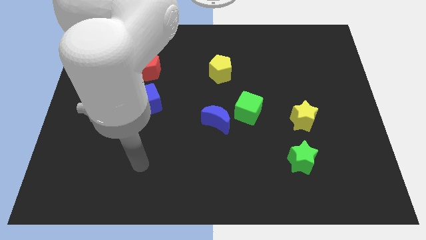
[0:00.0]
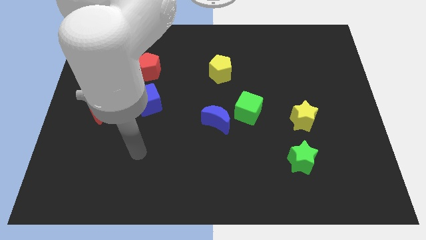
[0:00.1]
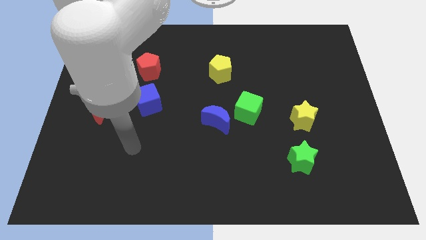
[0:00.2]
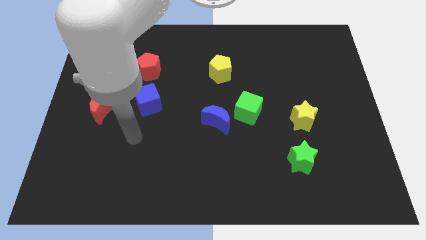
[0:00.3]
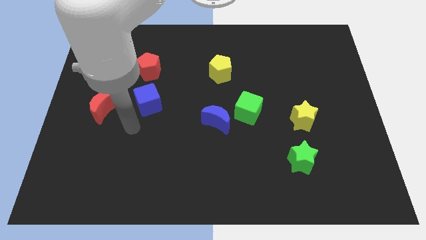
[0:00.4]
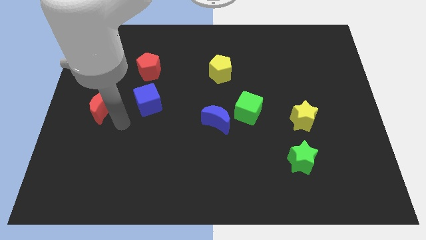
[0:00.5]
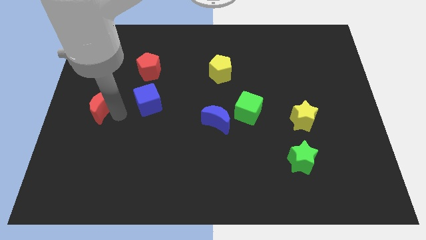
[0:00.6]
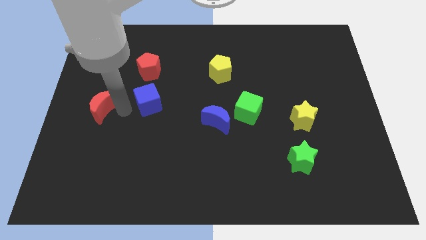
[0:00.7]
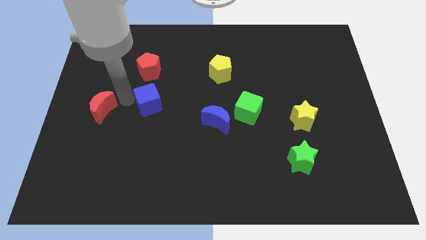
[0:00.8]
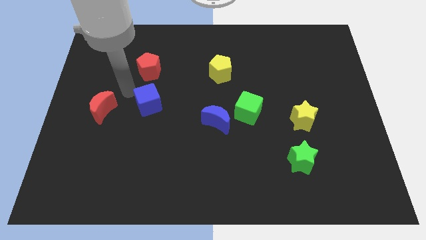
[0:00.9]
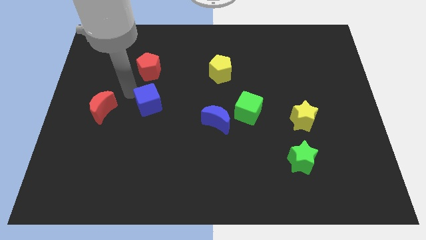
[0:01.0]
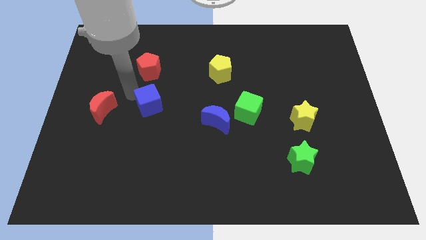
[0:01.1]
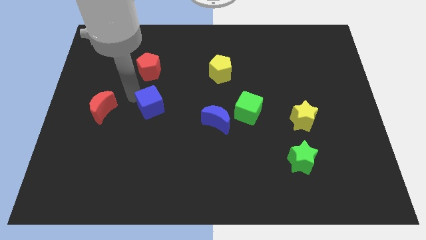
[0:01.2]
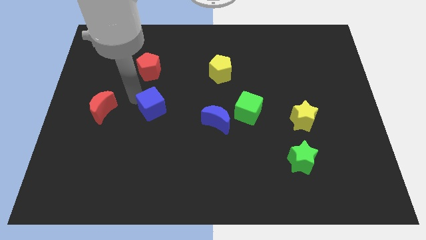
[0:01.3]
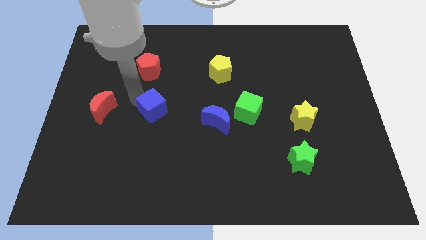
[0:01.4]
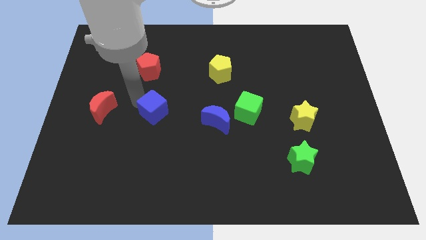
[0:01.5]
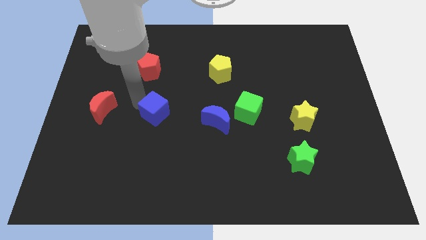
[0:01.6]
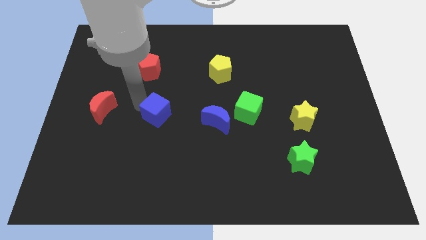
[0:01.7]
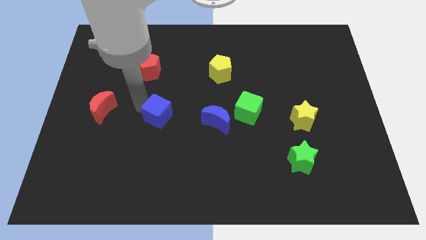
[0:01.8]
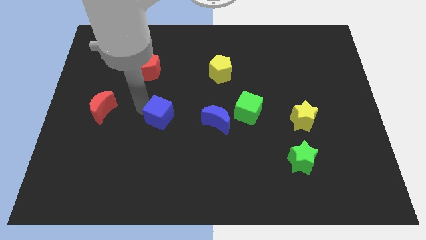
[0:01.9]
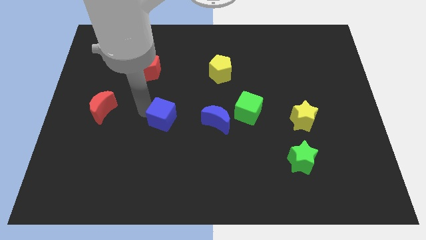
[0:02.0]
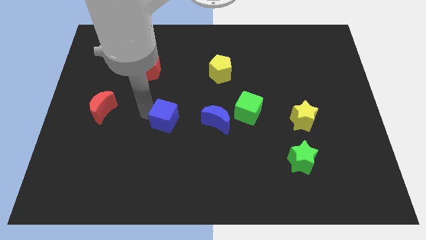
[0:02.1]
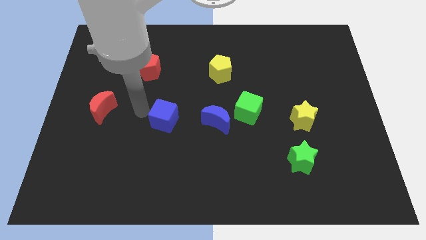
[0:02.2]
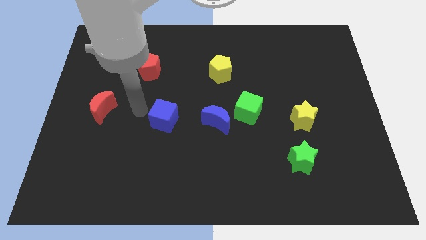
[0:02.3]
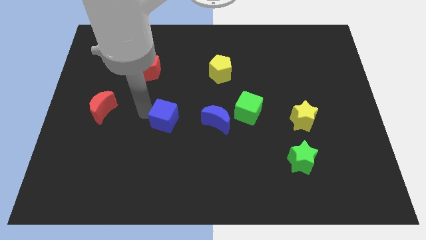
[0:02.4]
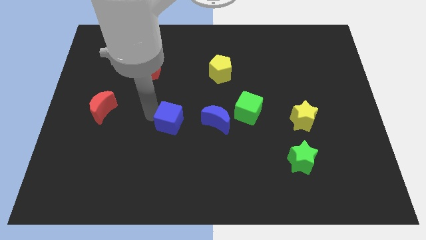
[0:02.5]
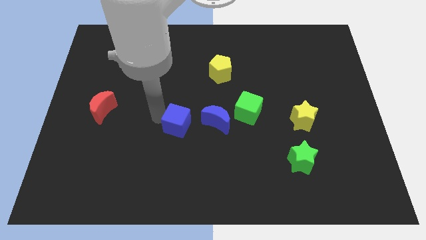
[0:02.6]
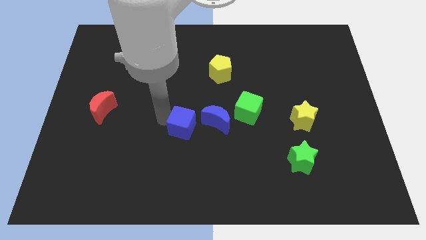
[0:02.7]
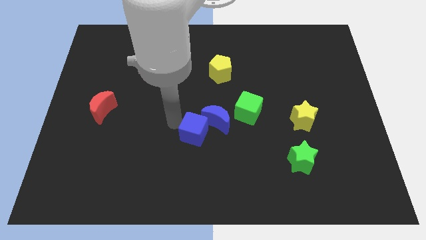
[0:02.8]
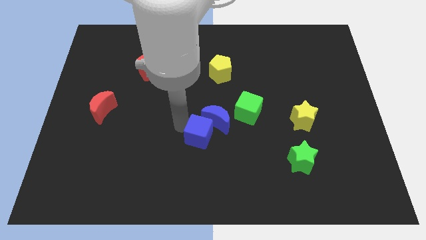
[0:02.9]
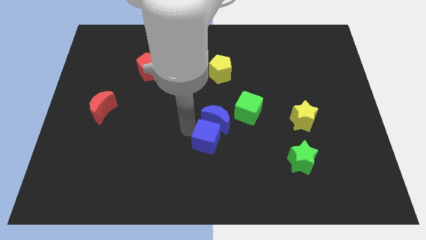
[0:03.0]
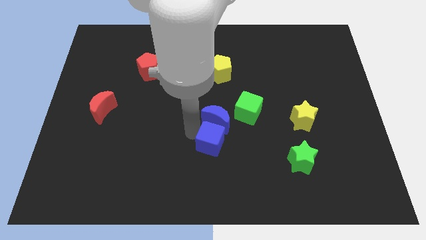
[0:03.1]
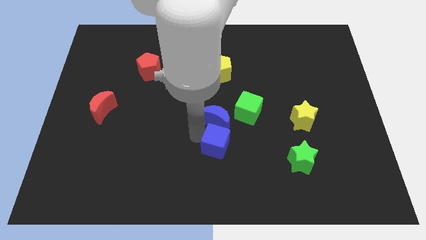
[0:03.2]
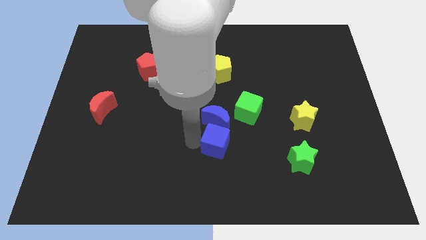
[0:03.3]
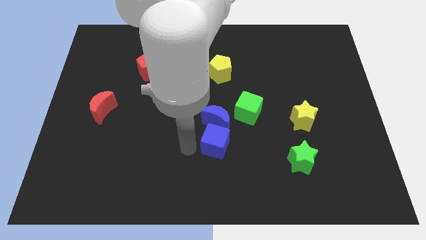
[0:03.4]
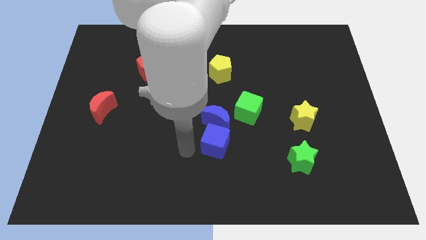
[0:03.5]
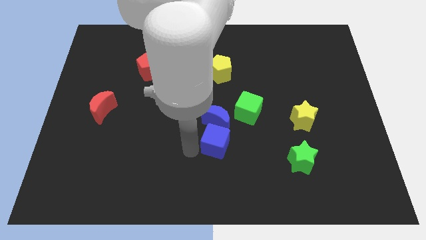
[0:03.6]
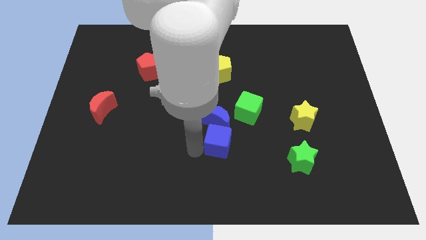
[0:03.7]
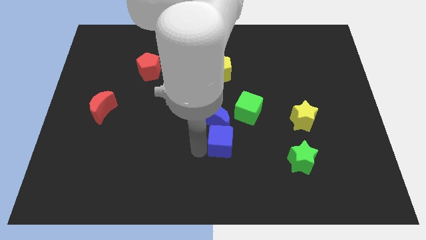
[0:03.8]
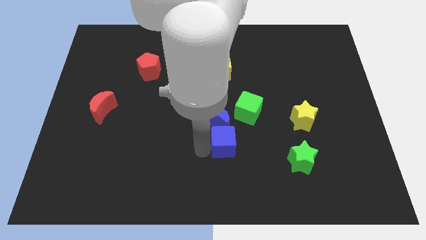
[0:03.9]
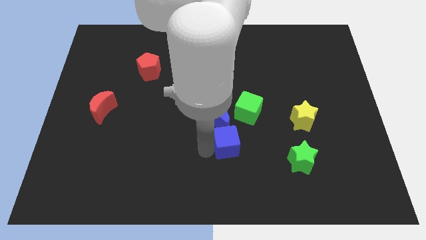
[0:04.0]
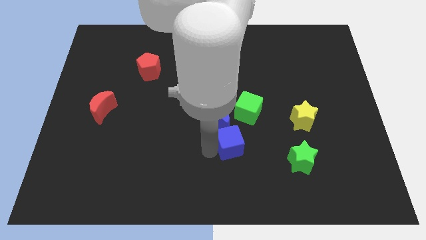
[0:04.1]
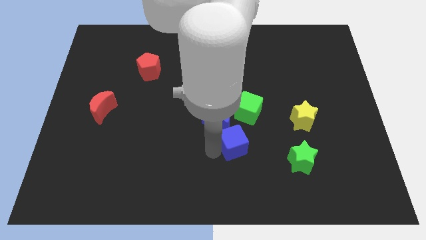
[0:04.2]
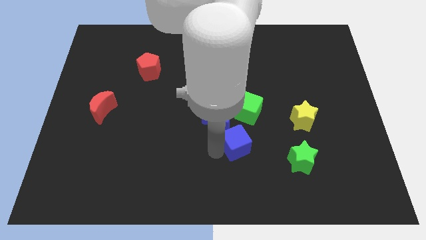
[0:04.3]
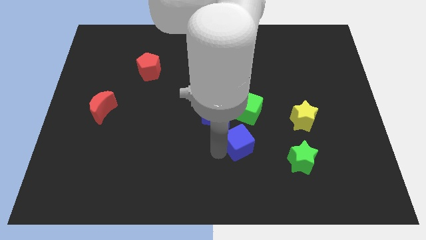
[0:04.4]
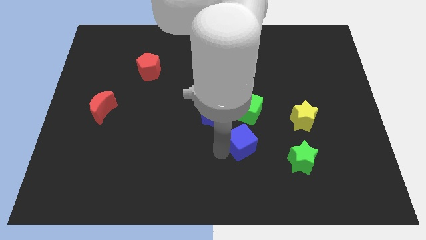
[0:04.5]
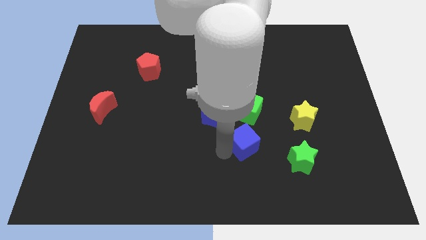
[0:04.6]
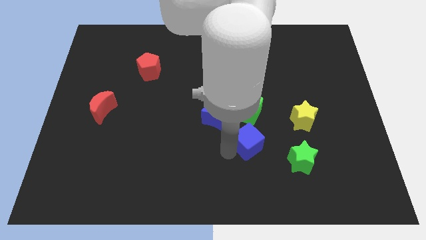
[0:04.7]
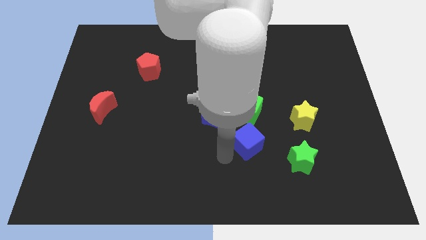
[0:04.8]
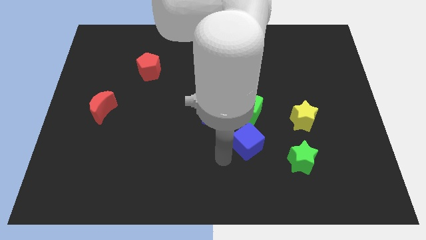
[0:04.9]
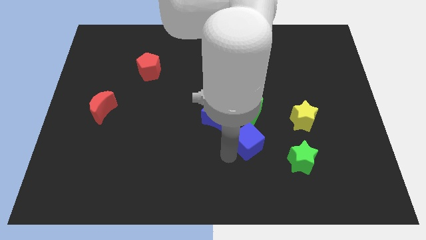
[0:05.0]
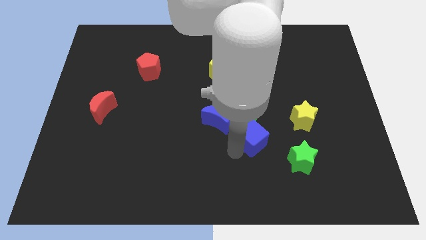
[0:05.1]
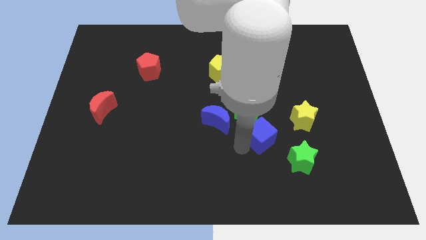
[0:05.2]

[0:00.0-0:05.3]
push the blue cube diagonally down and to the right of the green cube

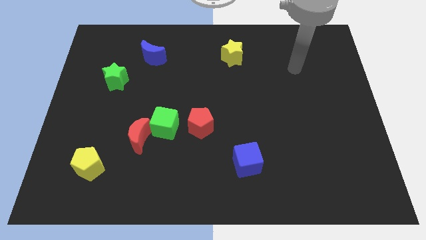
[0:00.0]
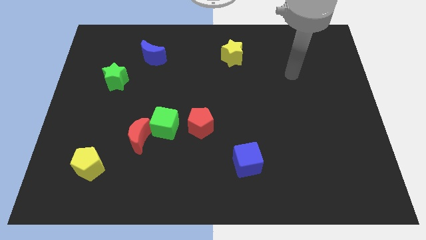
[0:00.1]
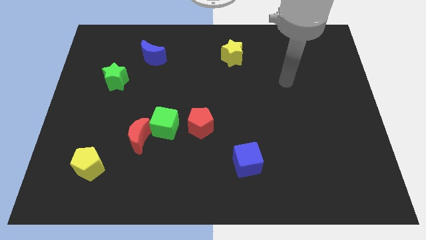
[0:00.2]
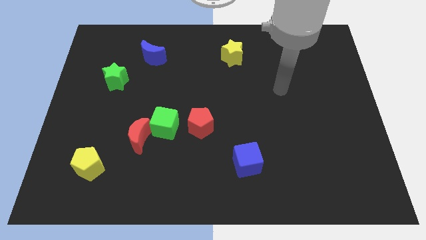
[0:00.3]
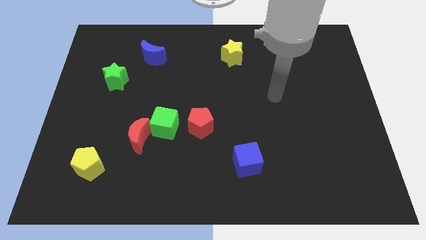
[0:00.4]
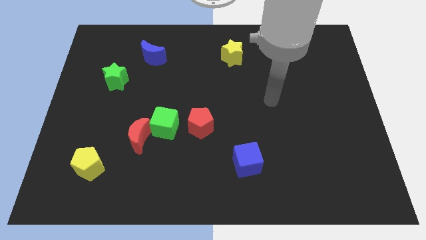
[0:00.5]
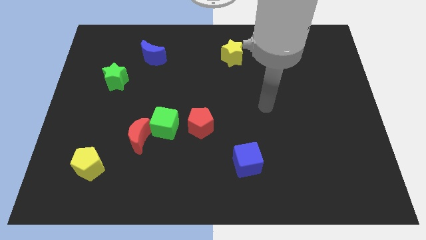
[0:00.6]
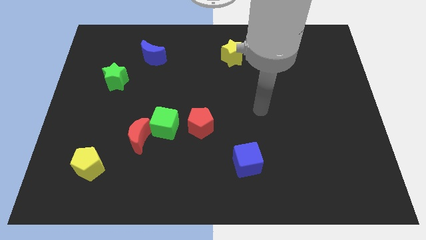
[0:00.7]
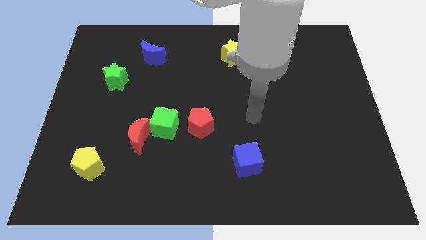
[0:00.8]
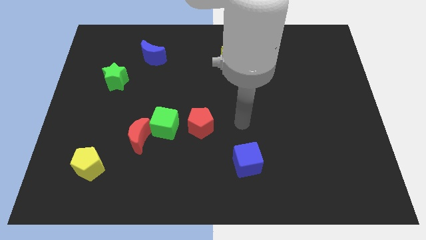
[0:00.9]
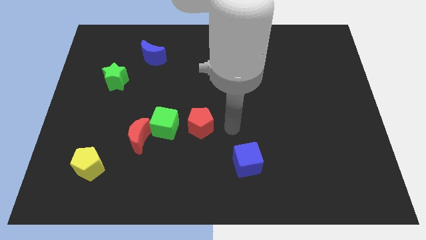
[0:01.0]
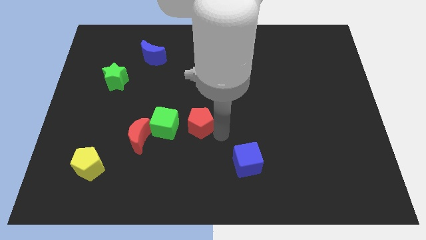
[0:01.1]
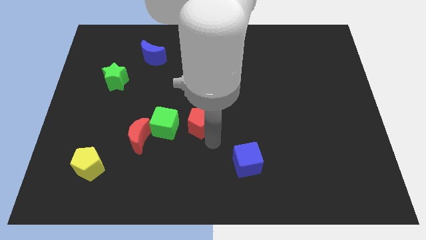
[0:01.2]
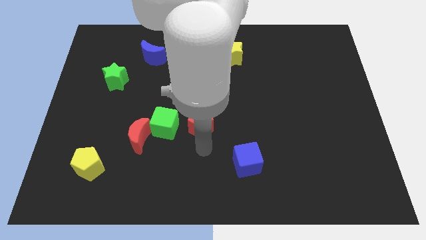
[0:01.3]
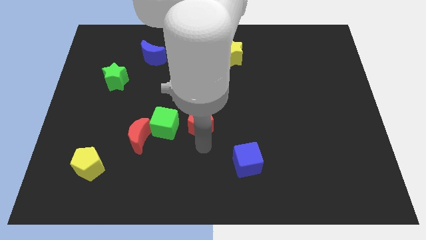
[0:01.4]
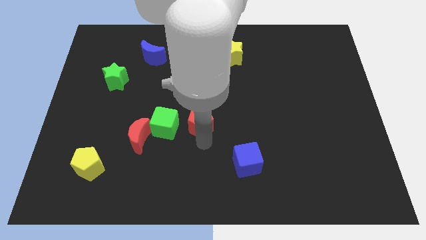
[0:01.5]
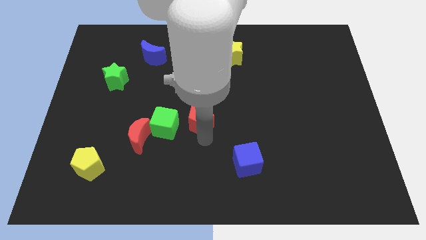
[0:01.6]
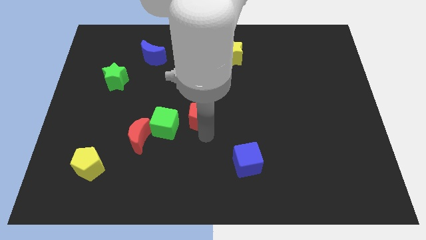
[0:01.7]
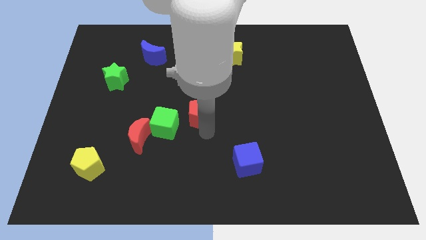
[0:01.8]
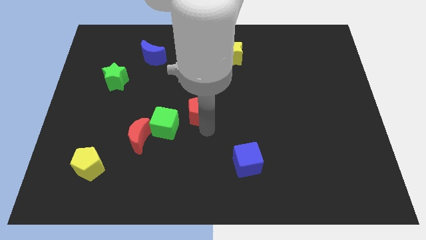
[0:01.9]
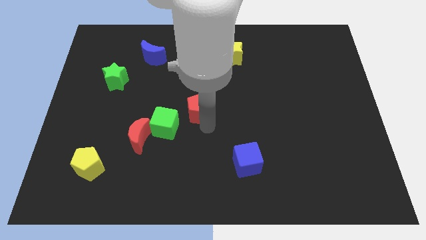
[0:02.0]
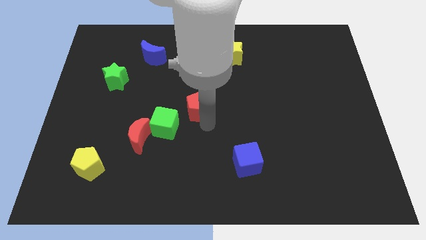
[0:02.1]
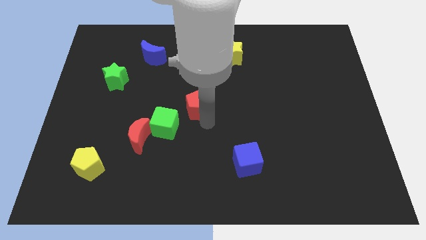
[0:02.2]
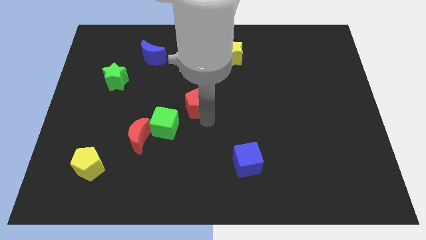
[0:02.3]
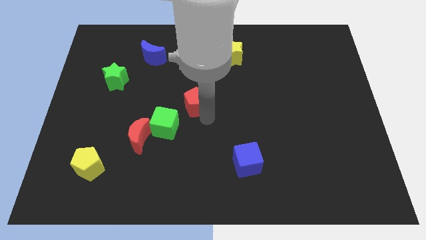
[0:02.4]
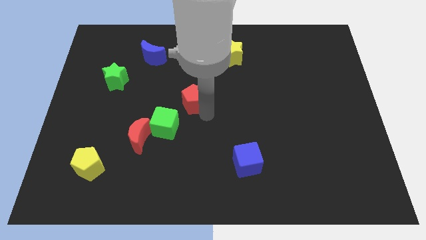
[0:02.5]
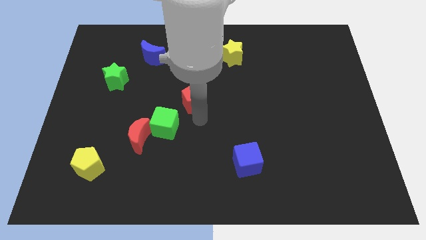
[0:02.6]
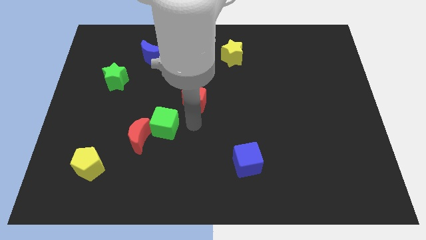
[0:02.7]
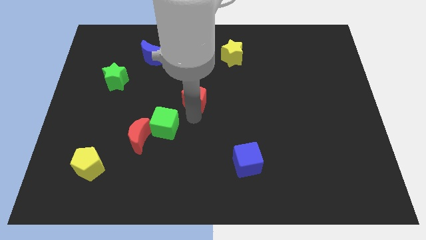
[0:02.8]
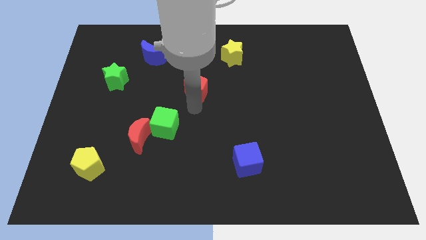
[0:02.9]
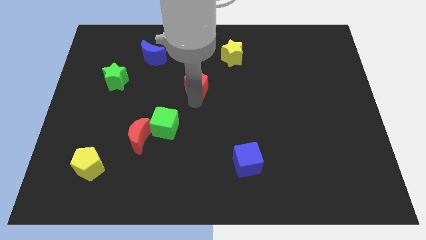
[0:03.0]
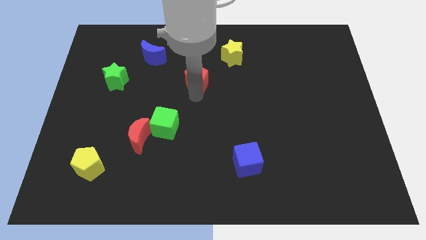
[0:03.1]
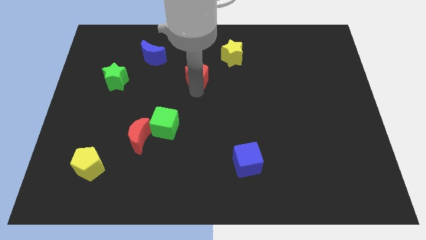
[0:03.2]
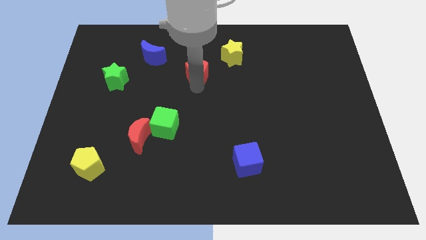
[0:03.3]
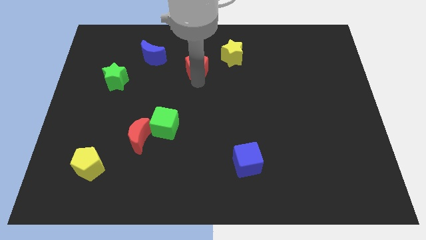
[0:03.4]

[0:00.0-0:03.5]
move the red pentagon just left of the yellow star
